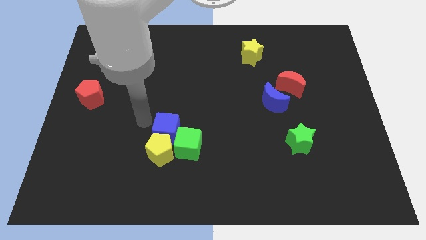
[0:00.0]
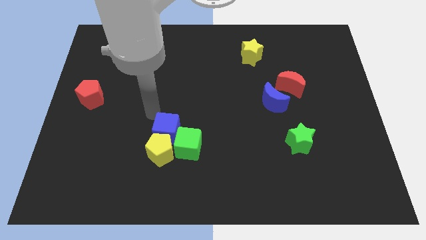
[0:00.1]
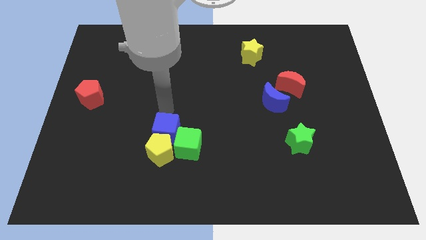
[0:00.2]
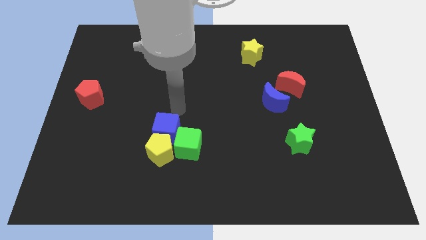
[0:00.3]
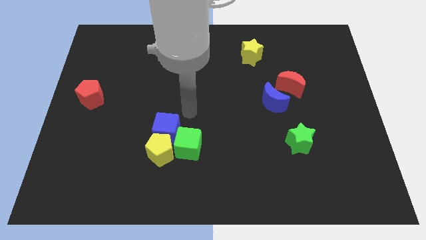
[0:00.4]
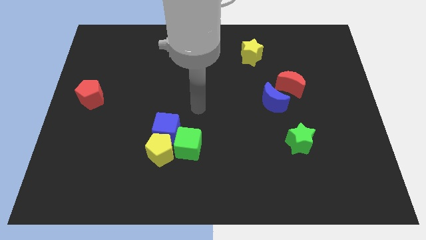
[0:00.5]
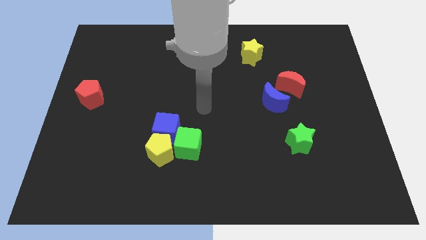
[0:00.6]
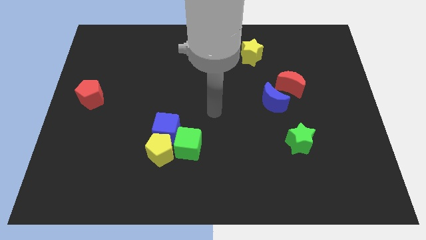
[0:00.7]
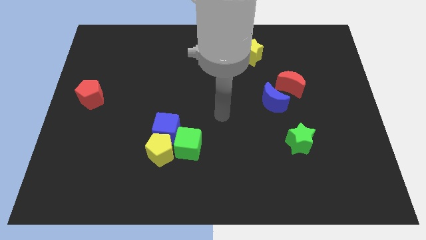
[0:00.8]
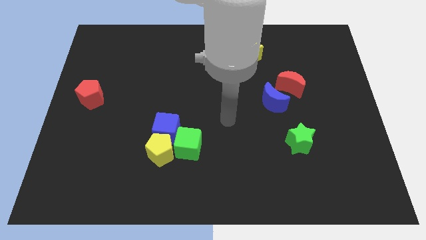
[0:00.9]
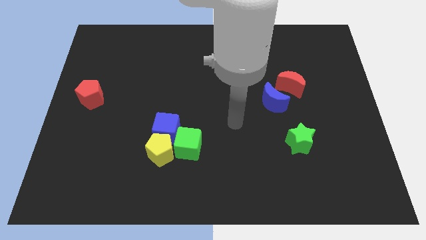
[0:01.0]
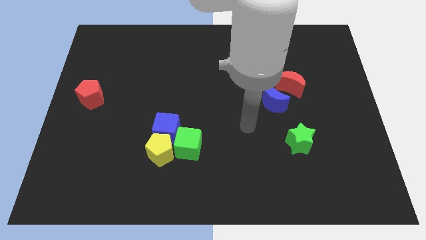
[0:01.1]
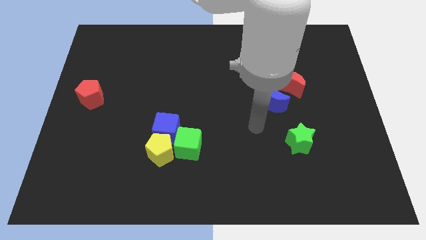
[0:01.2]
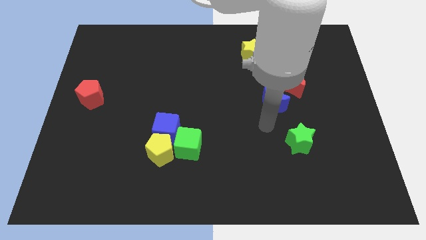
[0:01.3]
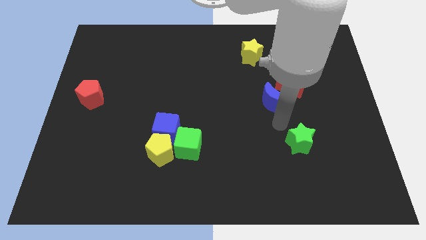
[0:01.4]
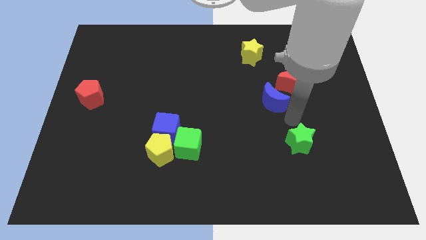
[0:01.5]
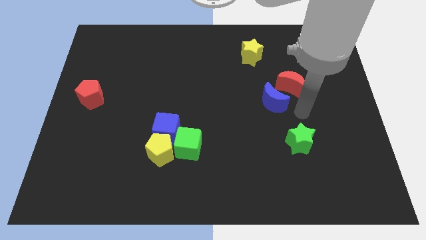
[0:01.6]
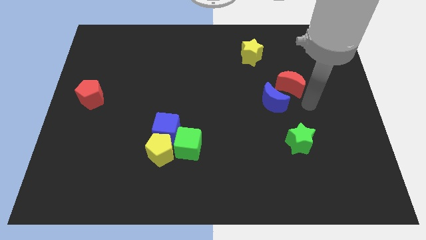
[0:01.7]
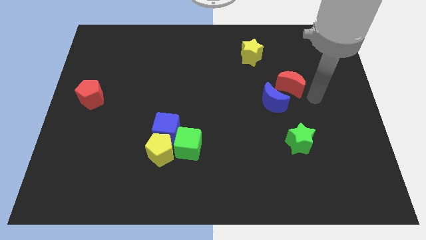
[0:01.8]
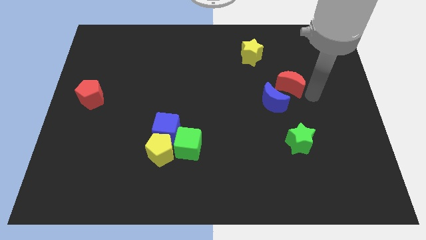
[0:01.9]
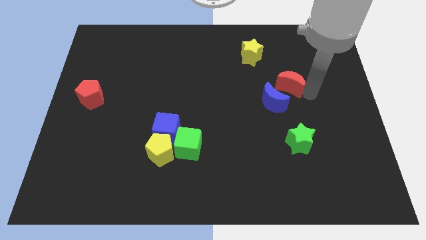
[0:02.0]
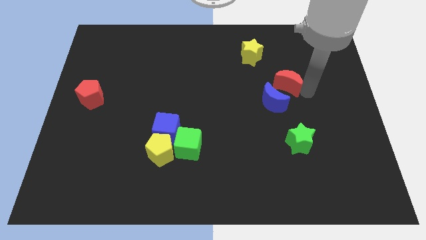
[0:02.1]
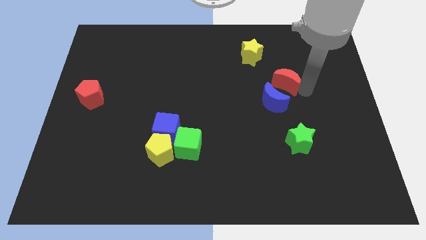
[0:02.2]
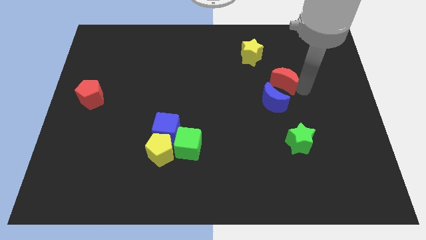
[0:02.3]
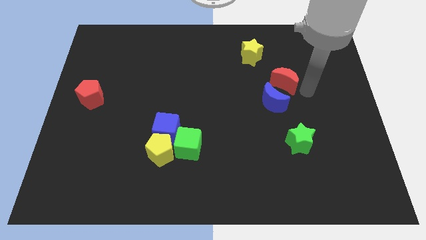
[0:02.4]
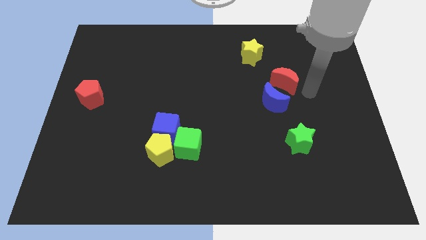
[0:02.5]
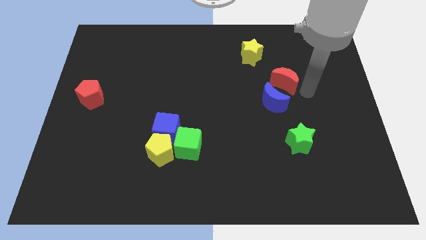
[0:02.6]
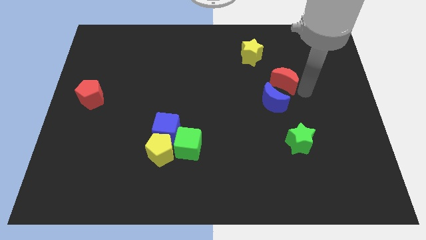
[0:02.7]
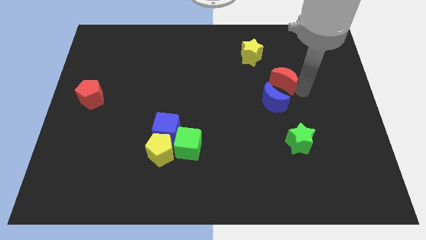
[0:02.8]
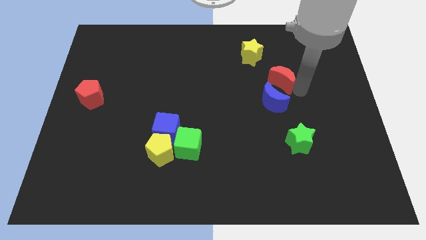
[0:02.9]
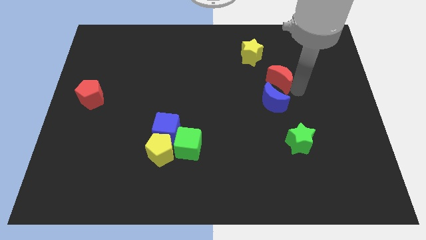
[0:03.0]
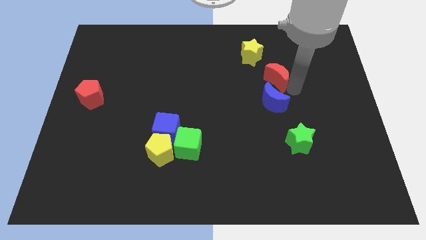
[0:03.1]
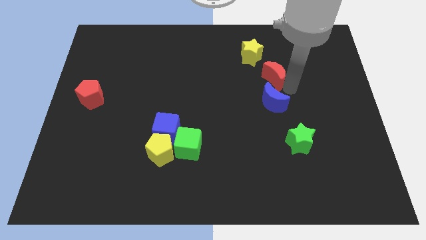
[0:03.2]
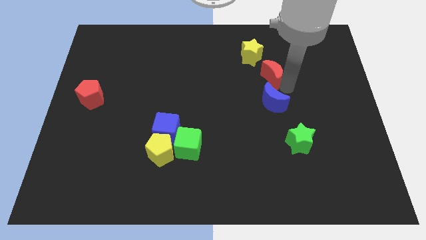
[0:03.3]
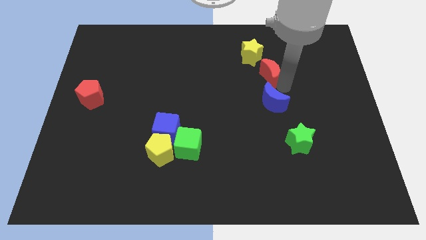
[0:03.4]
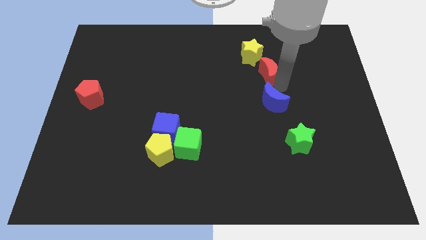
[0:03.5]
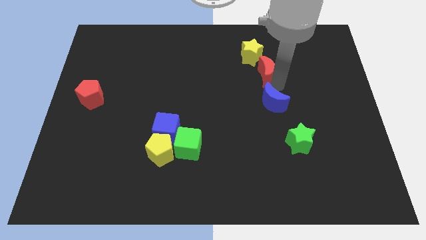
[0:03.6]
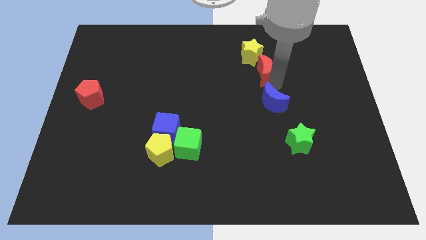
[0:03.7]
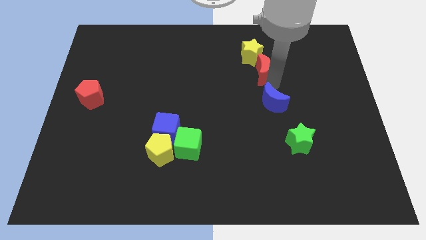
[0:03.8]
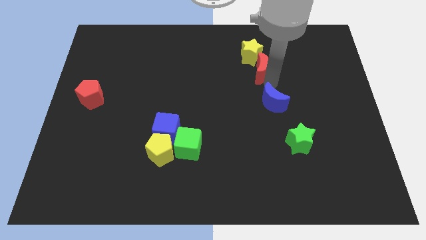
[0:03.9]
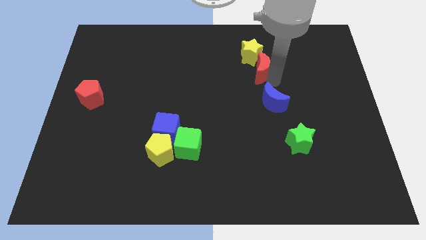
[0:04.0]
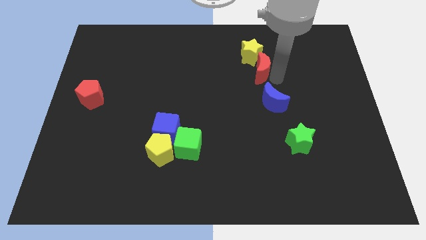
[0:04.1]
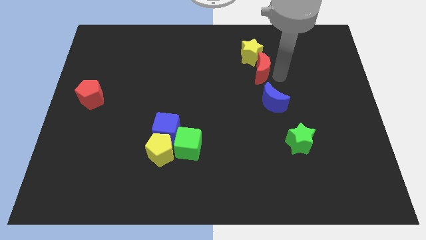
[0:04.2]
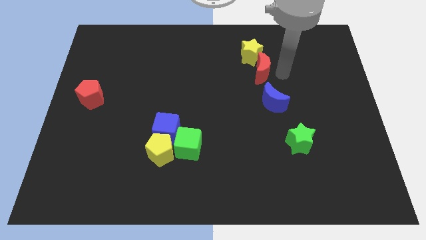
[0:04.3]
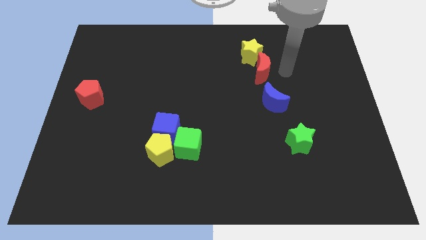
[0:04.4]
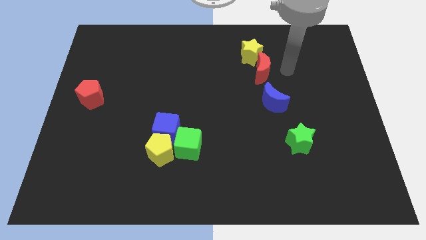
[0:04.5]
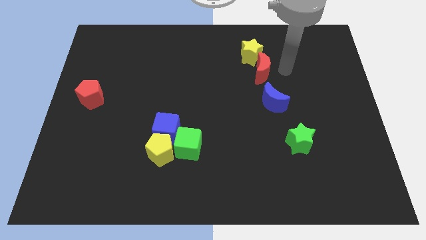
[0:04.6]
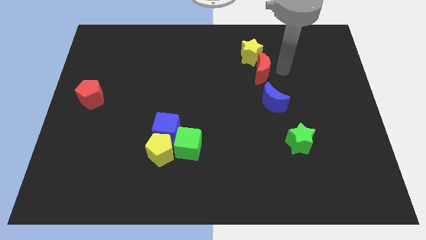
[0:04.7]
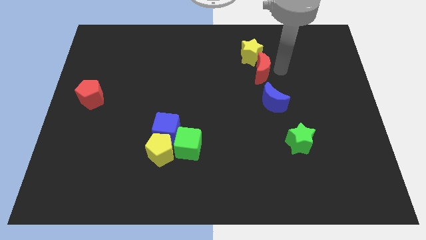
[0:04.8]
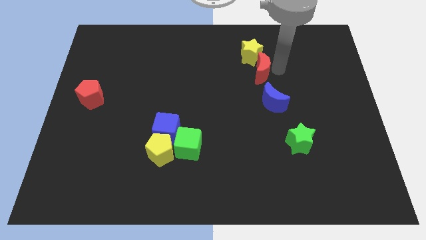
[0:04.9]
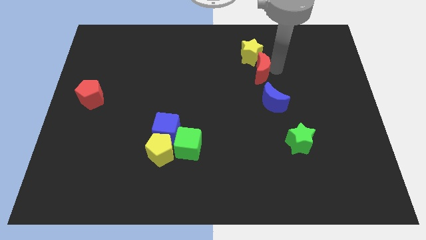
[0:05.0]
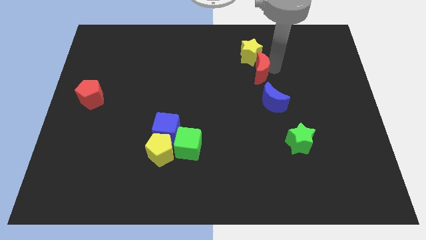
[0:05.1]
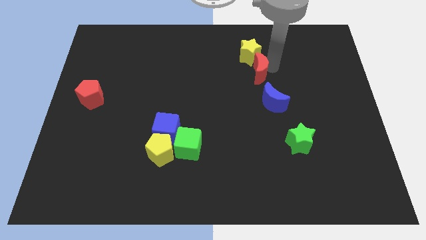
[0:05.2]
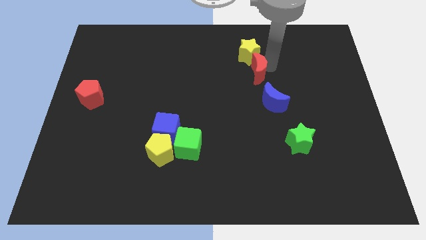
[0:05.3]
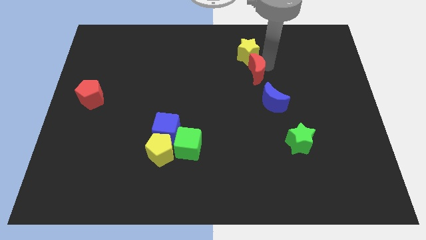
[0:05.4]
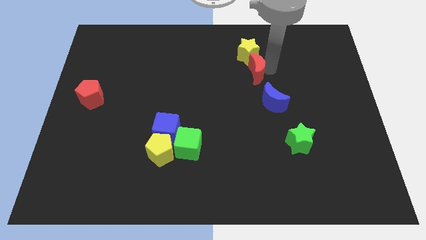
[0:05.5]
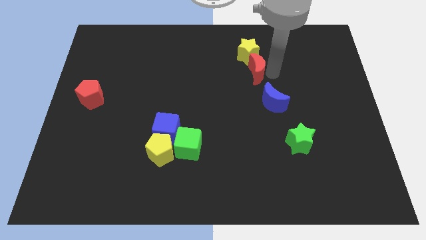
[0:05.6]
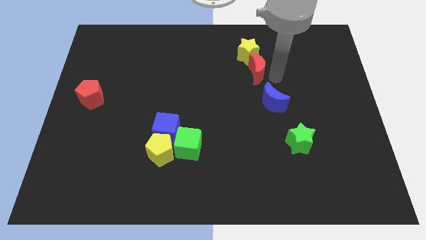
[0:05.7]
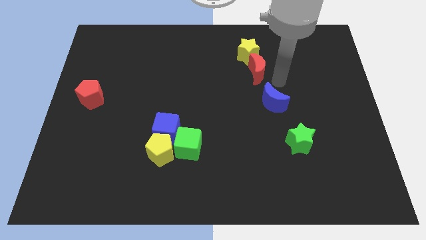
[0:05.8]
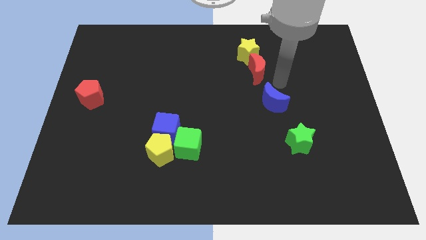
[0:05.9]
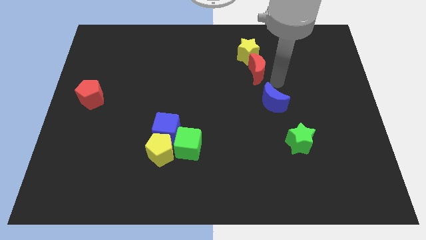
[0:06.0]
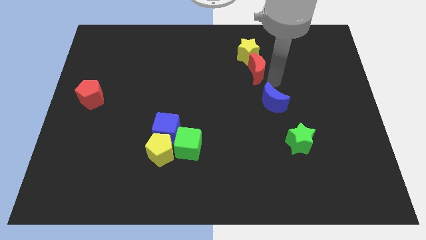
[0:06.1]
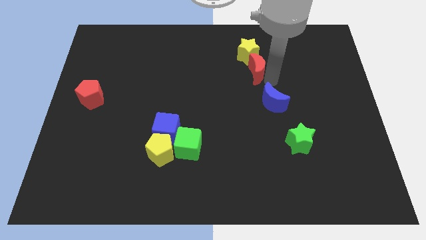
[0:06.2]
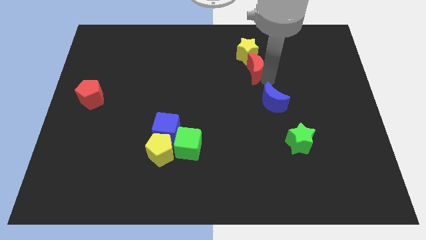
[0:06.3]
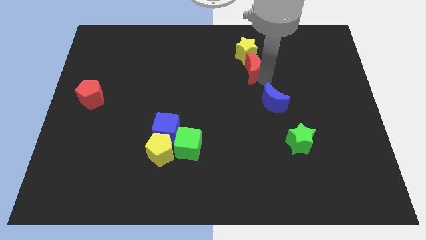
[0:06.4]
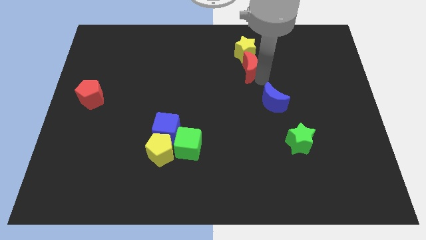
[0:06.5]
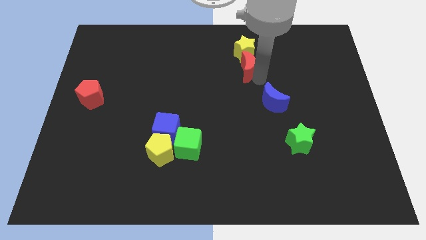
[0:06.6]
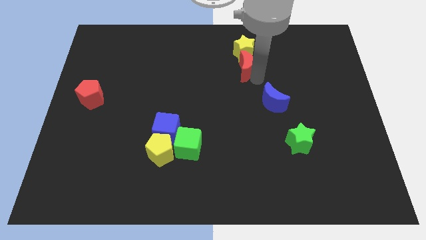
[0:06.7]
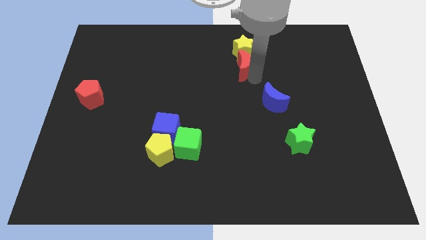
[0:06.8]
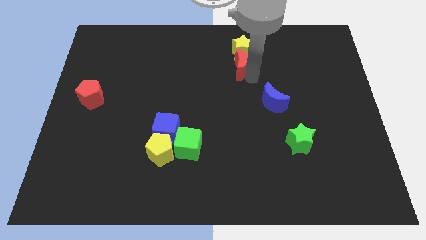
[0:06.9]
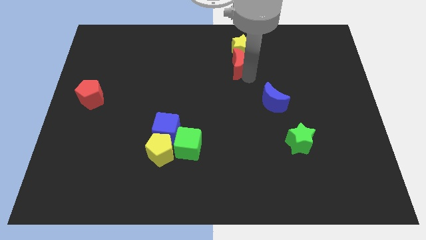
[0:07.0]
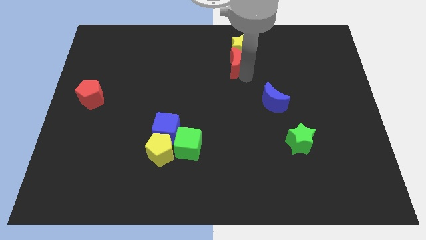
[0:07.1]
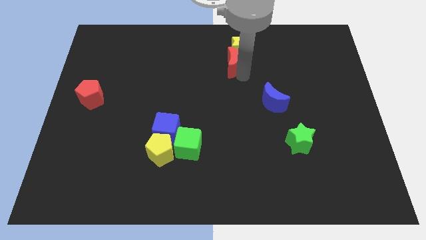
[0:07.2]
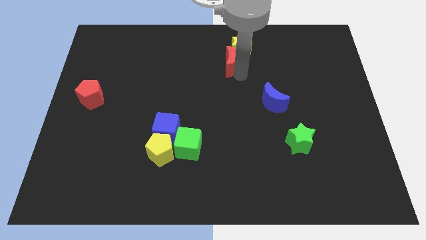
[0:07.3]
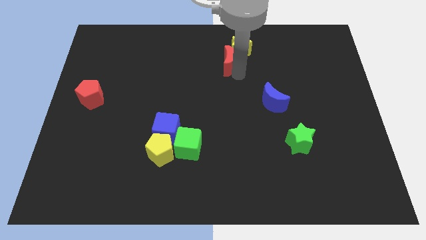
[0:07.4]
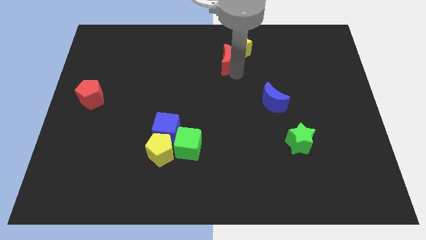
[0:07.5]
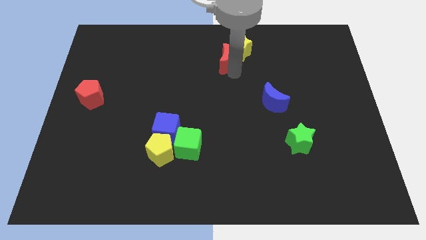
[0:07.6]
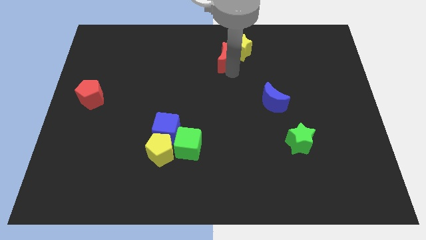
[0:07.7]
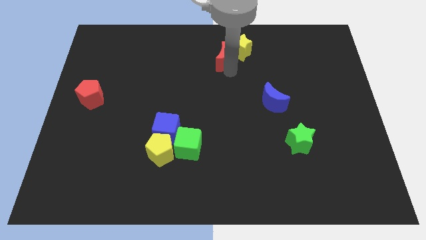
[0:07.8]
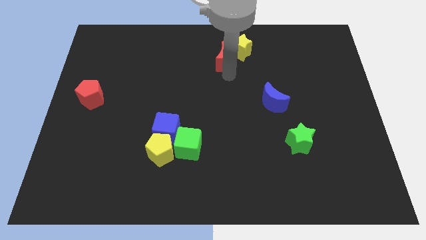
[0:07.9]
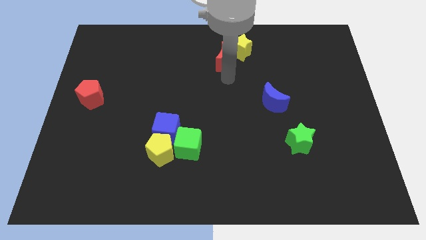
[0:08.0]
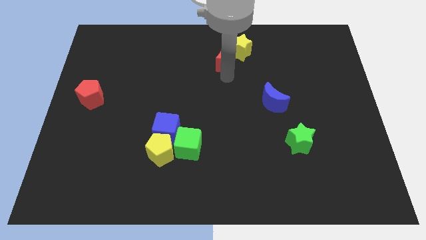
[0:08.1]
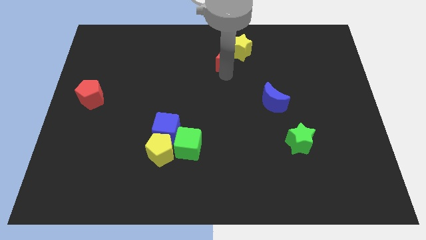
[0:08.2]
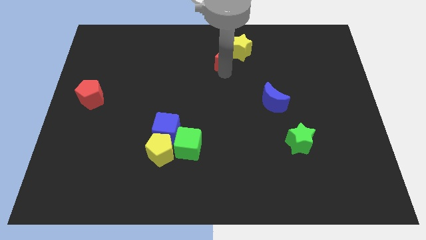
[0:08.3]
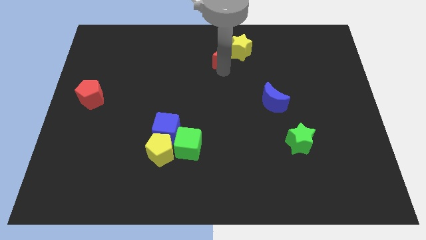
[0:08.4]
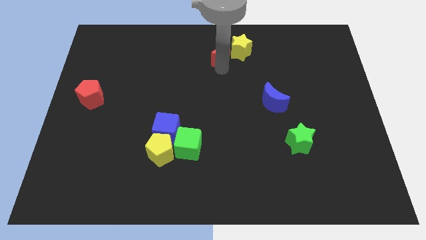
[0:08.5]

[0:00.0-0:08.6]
push the red moon to the top side
